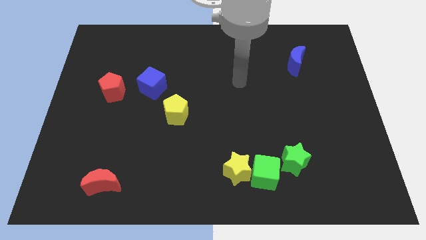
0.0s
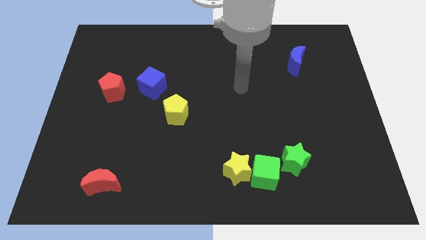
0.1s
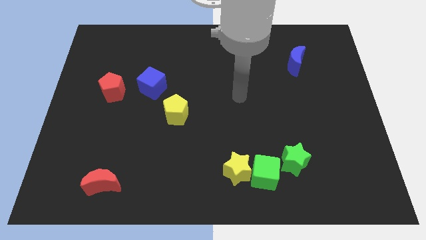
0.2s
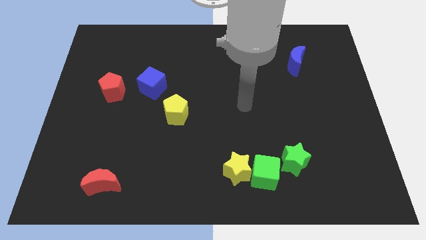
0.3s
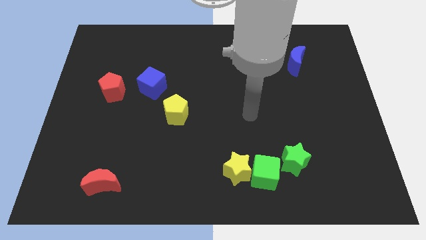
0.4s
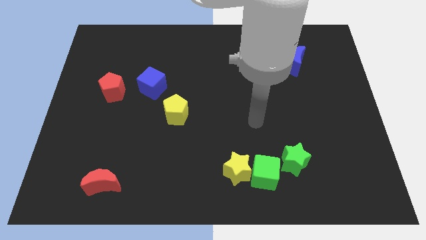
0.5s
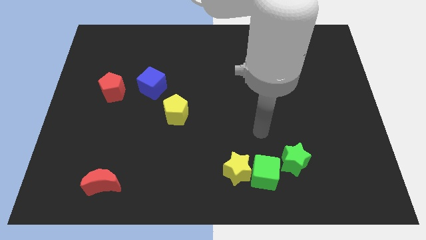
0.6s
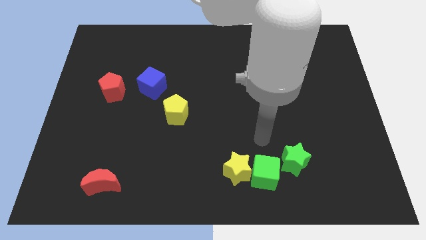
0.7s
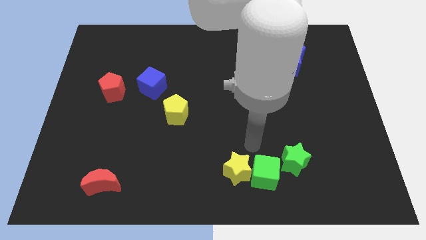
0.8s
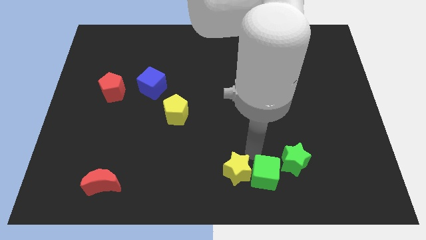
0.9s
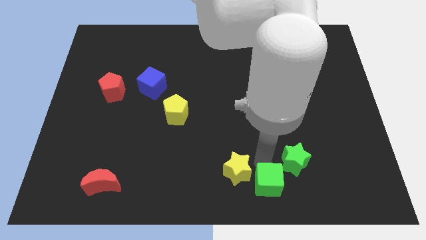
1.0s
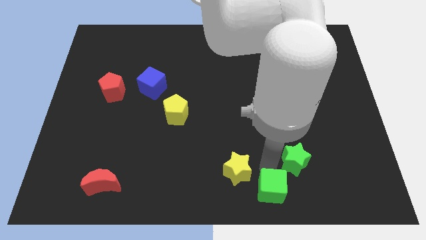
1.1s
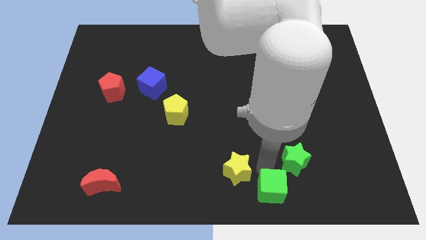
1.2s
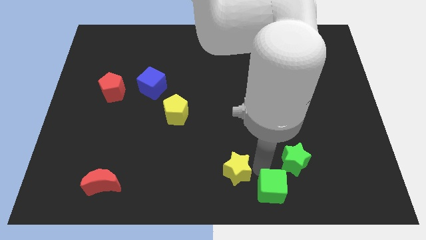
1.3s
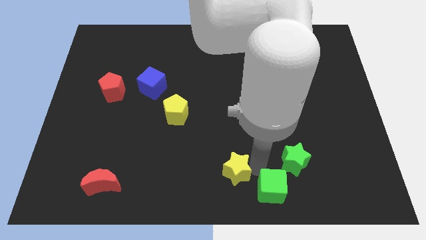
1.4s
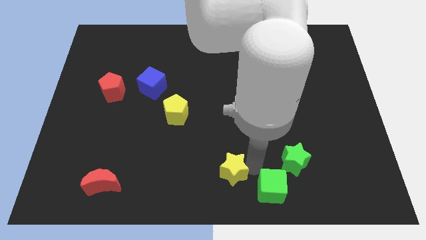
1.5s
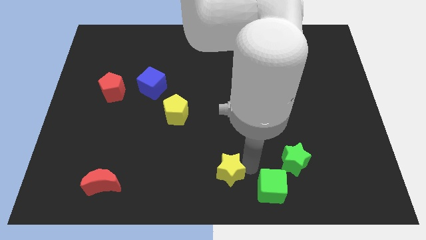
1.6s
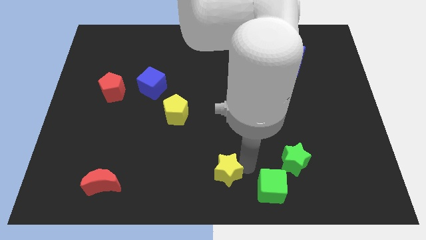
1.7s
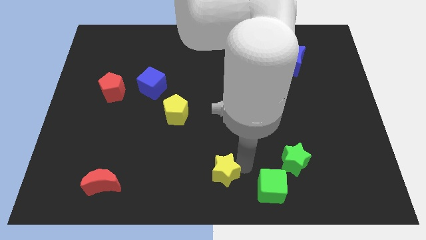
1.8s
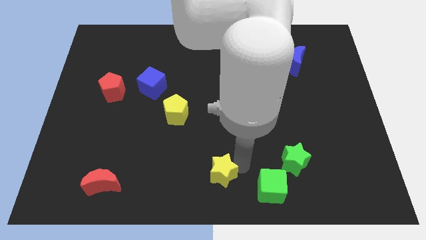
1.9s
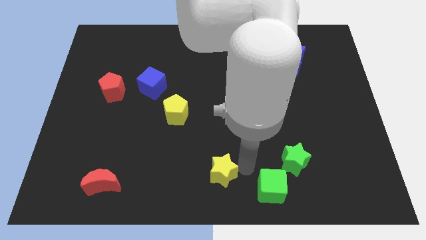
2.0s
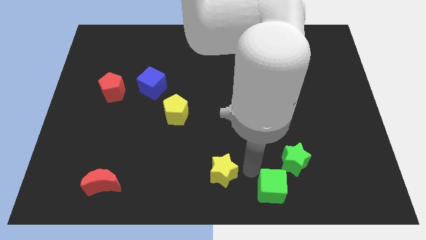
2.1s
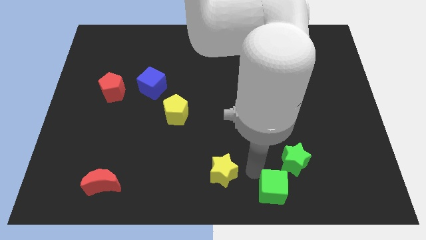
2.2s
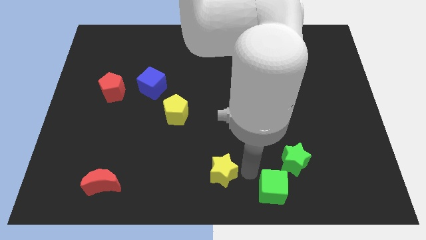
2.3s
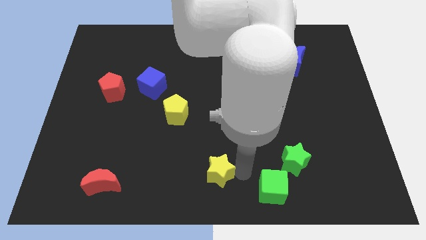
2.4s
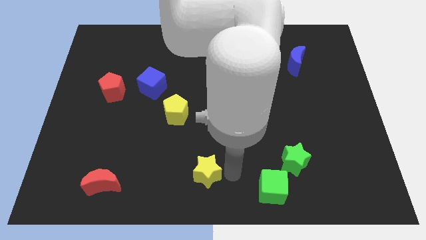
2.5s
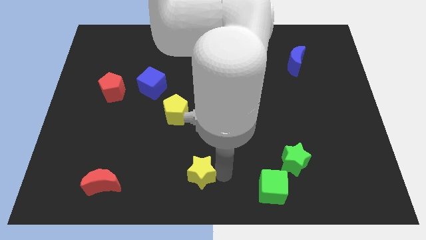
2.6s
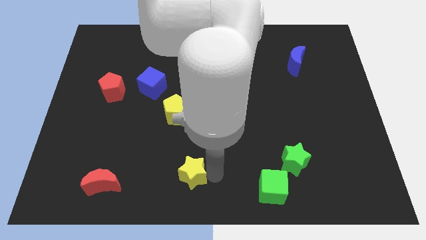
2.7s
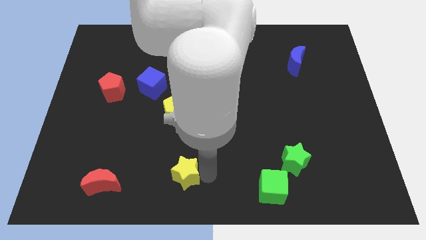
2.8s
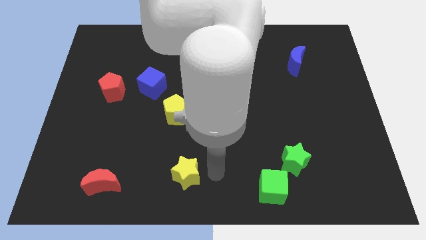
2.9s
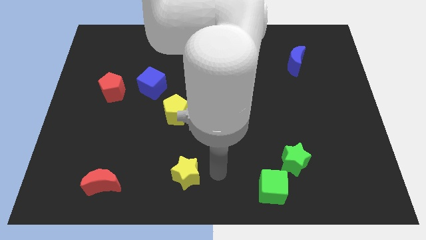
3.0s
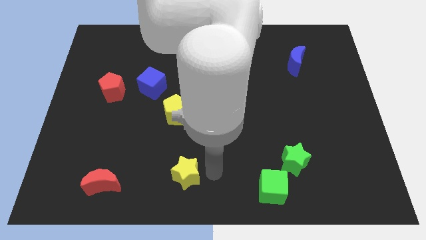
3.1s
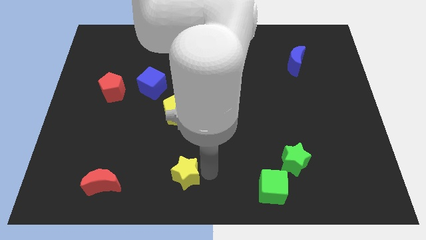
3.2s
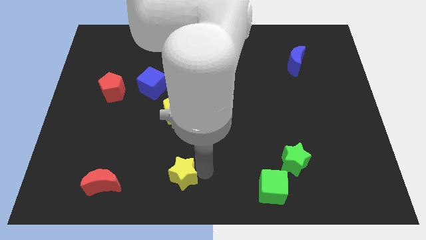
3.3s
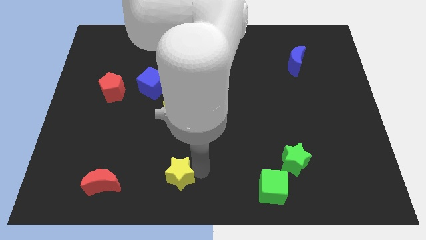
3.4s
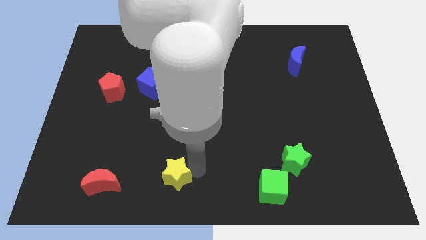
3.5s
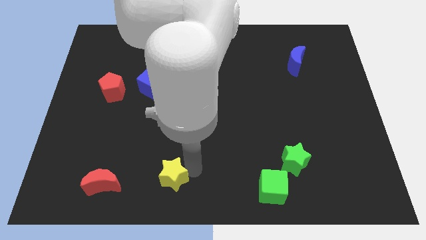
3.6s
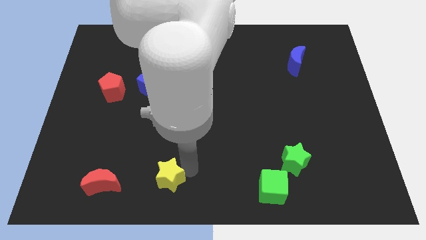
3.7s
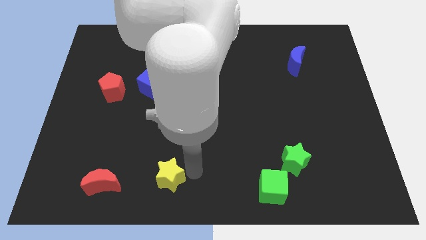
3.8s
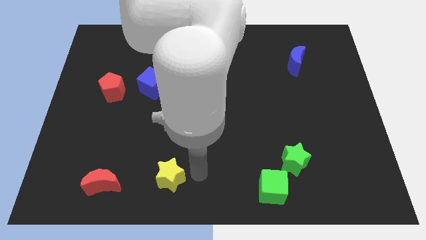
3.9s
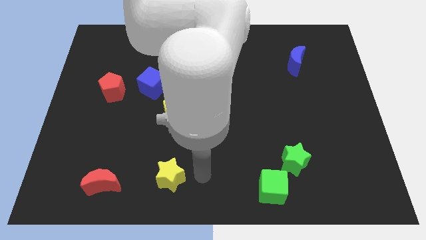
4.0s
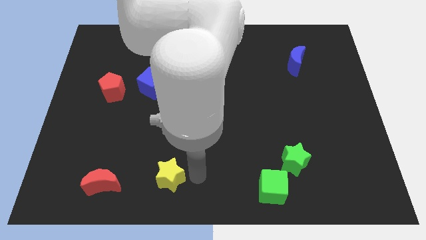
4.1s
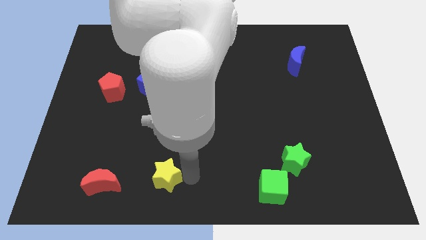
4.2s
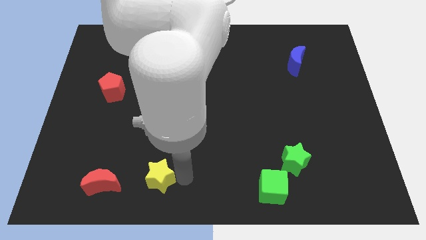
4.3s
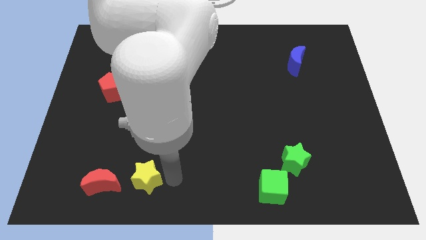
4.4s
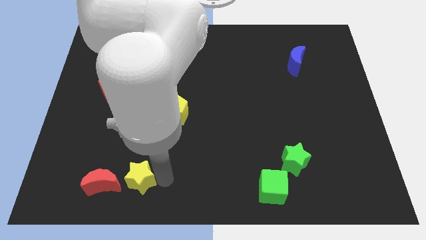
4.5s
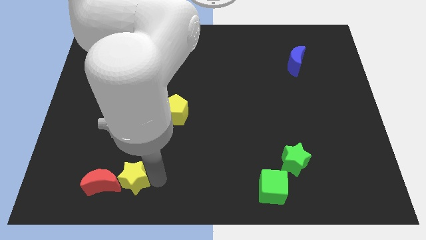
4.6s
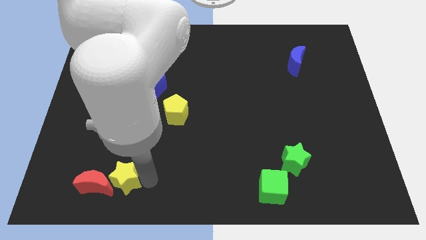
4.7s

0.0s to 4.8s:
move the yellow star next to the red moon

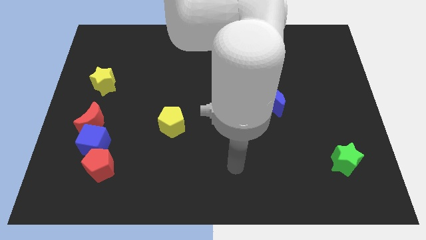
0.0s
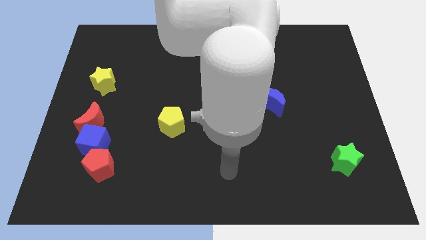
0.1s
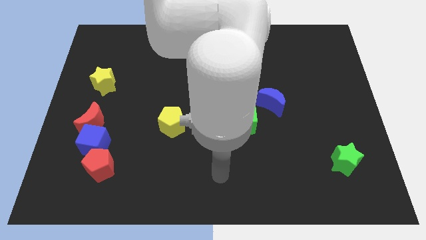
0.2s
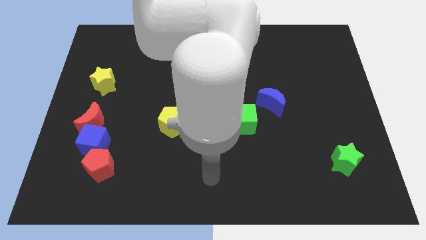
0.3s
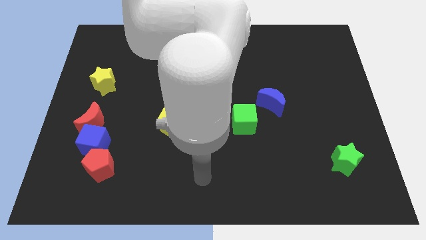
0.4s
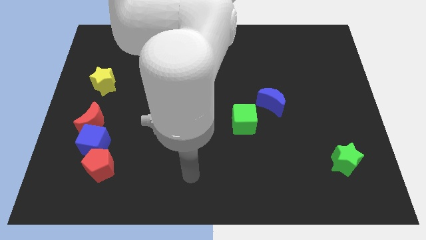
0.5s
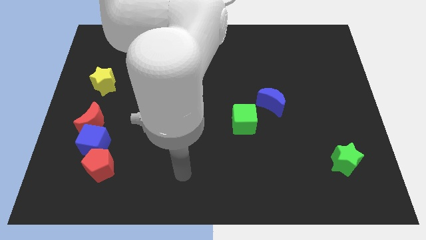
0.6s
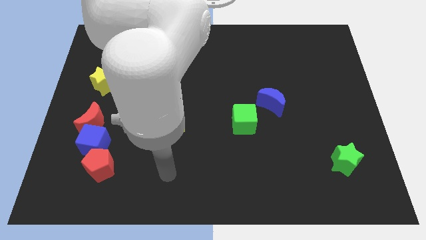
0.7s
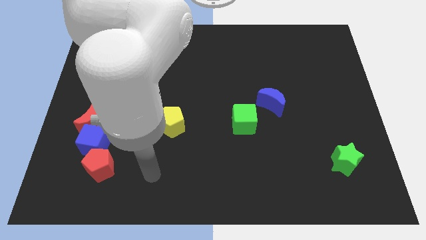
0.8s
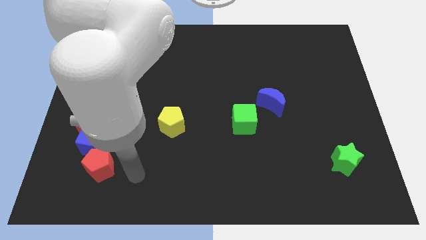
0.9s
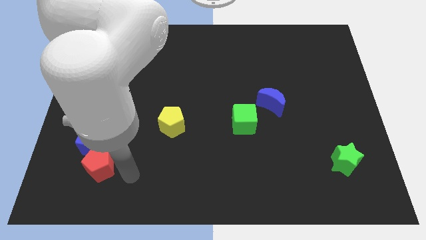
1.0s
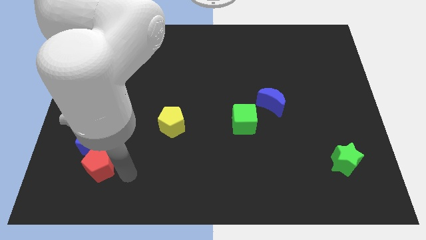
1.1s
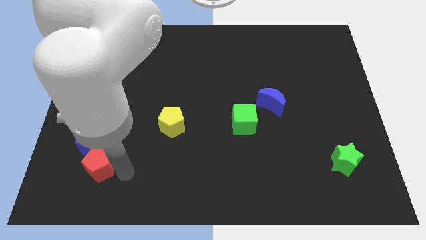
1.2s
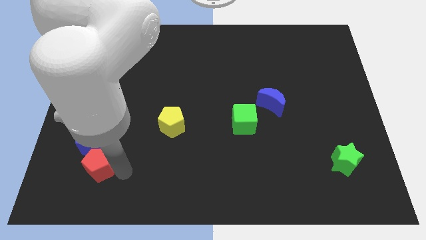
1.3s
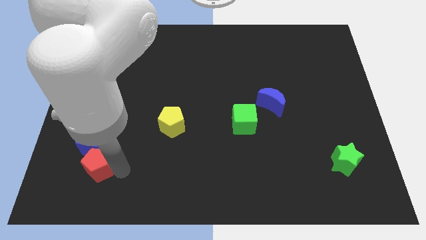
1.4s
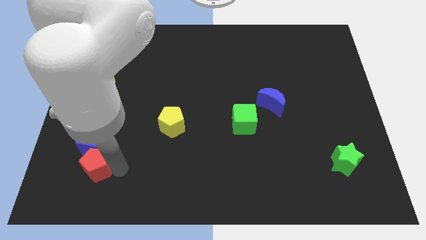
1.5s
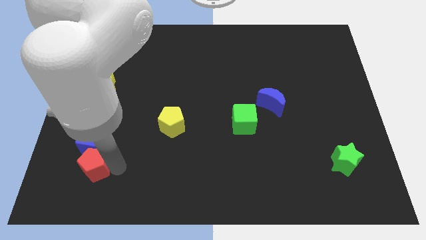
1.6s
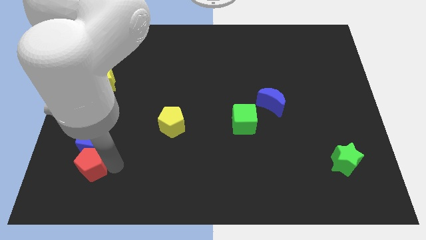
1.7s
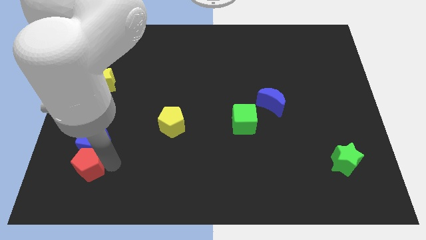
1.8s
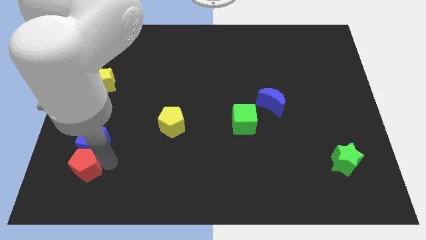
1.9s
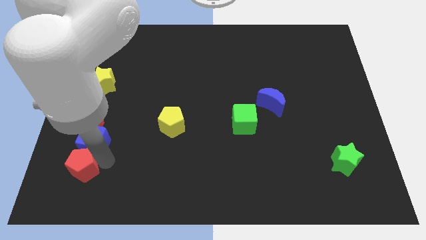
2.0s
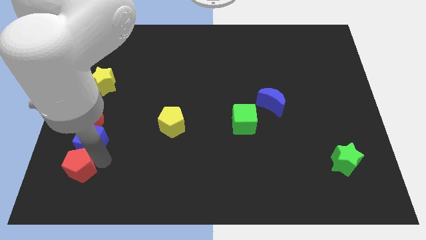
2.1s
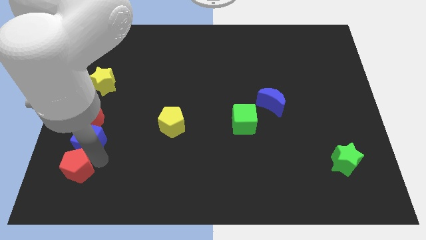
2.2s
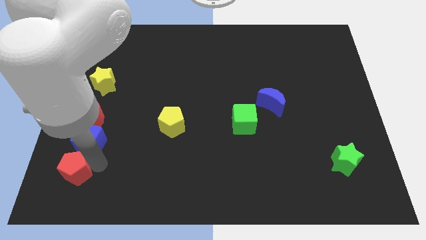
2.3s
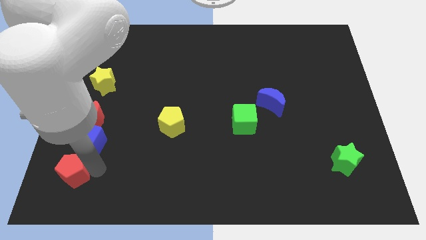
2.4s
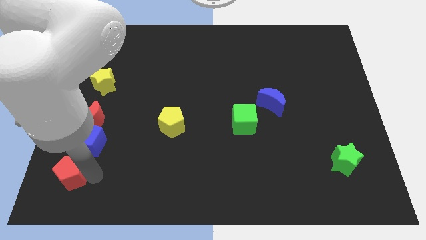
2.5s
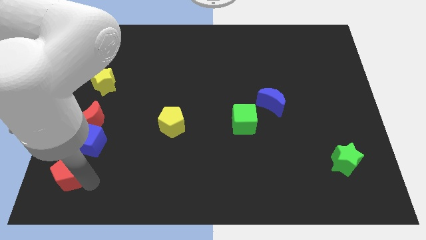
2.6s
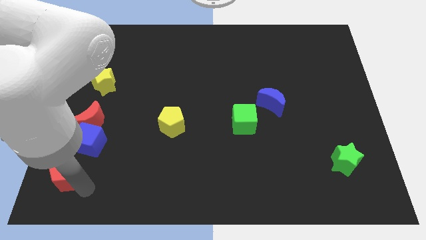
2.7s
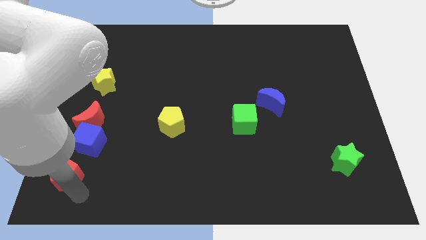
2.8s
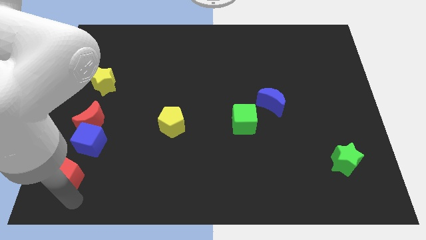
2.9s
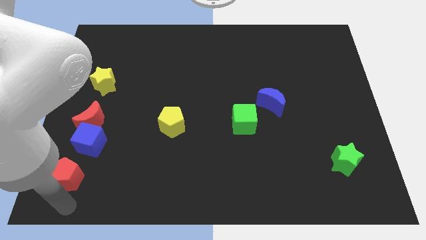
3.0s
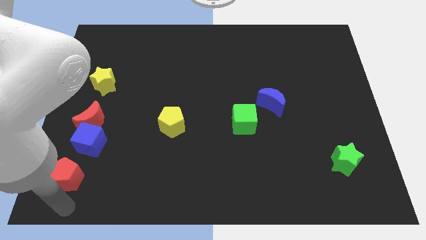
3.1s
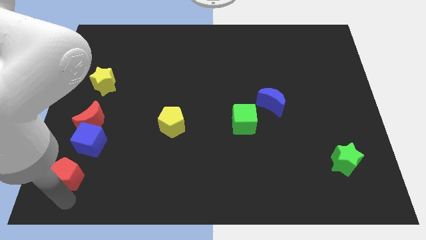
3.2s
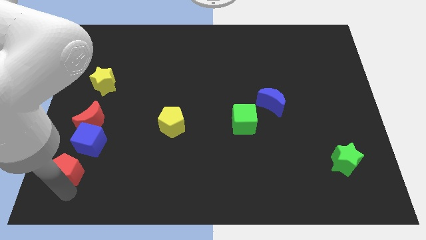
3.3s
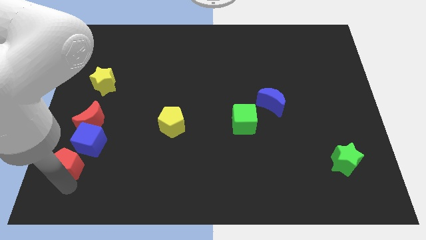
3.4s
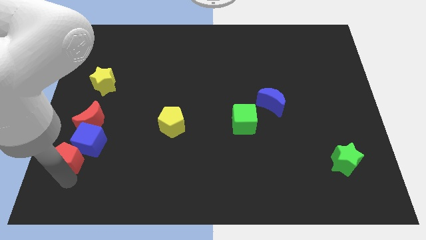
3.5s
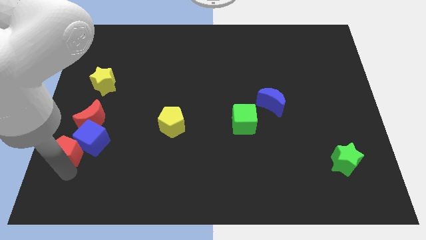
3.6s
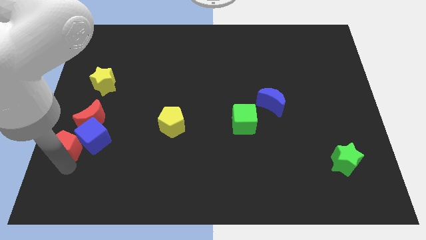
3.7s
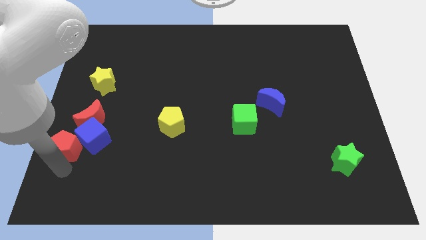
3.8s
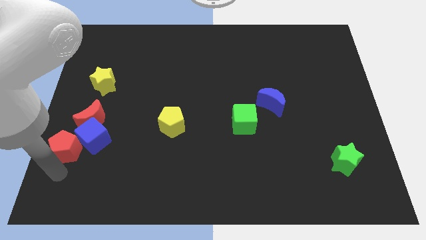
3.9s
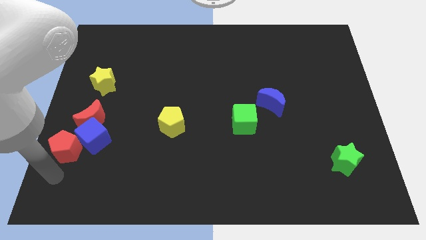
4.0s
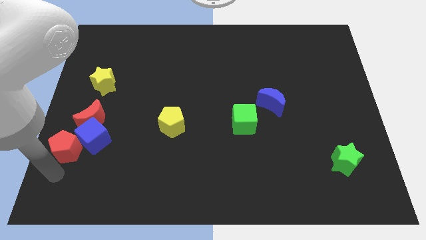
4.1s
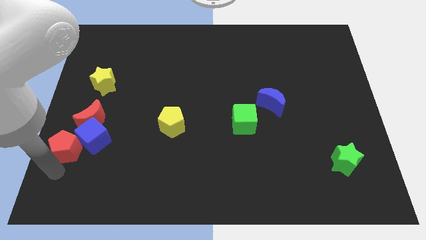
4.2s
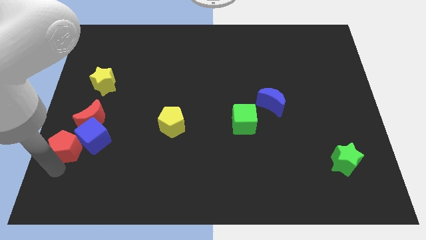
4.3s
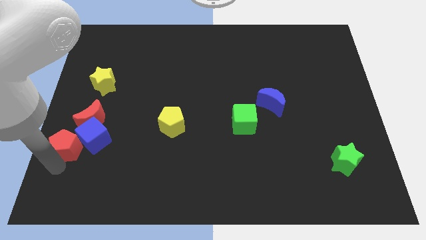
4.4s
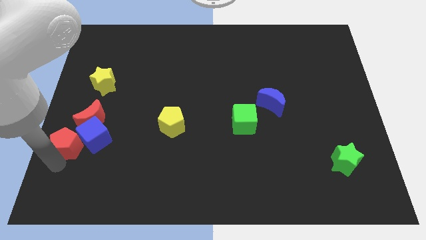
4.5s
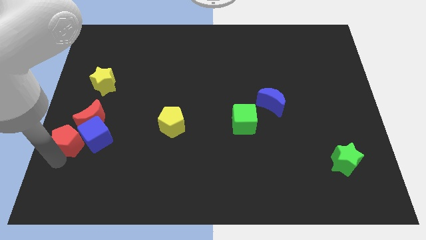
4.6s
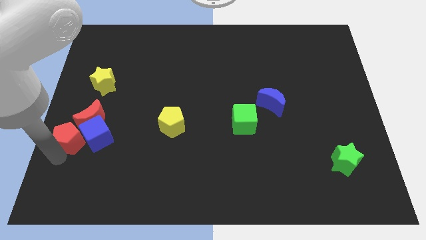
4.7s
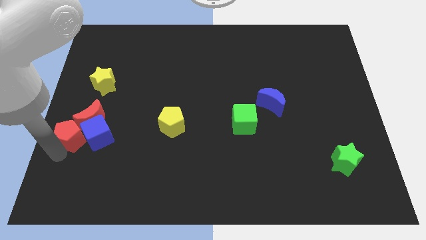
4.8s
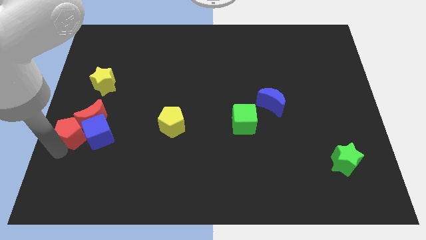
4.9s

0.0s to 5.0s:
move the red pentagon to the red moon
